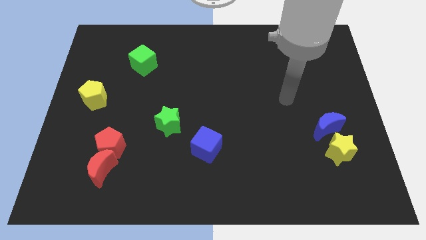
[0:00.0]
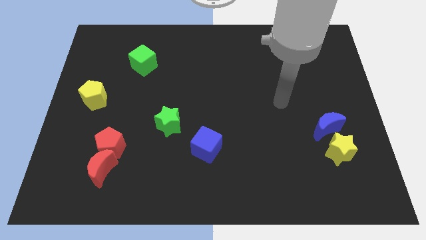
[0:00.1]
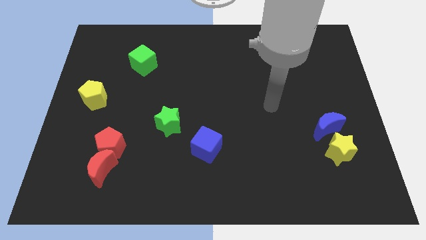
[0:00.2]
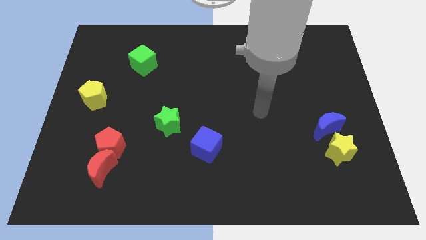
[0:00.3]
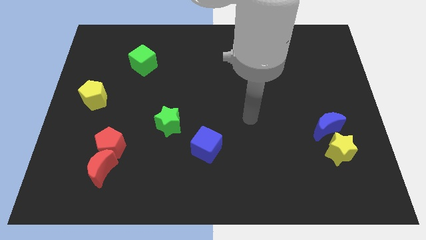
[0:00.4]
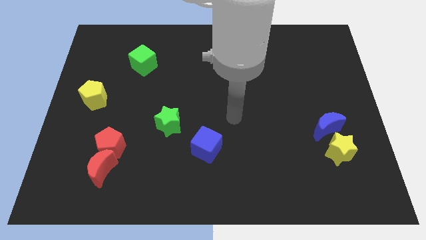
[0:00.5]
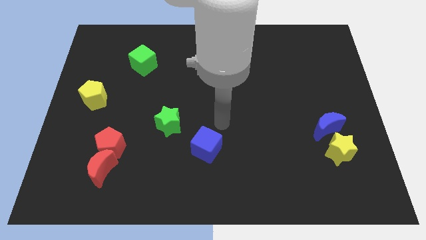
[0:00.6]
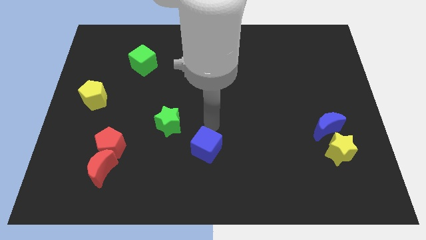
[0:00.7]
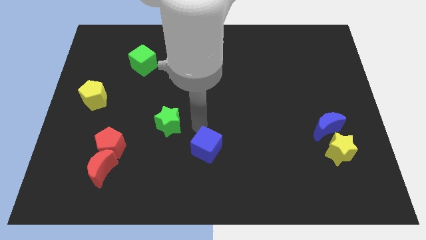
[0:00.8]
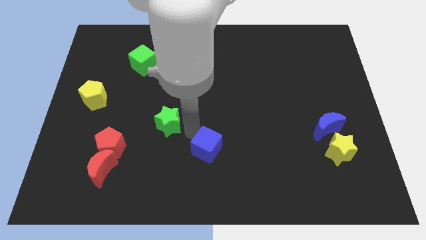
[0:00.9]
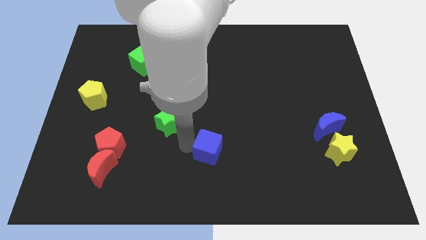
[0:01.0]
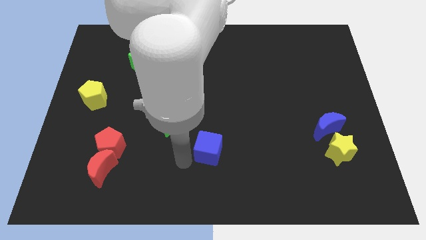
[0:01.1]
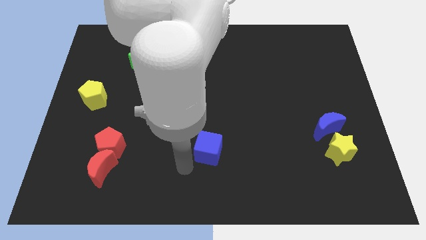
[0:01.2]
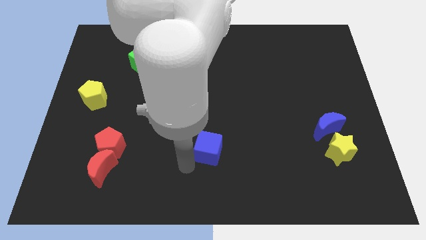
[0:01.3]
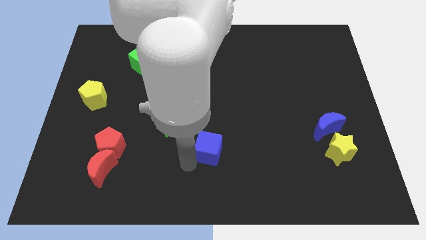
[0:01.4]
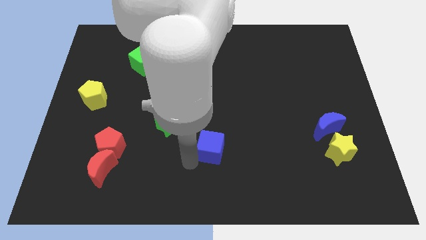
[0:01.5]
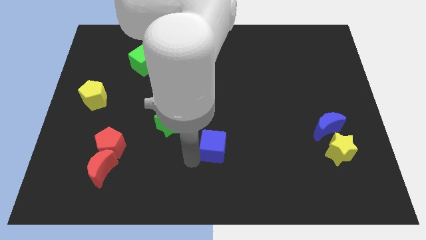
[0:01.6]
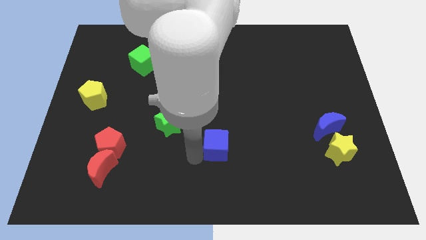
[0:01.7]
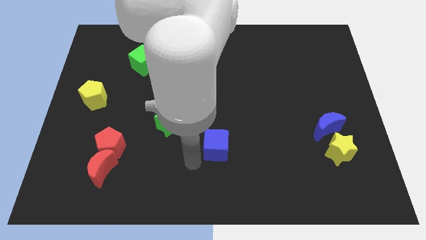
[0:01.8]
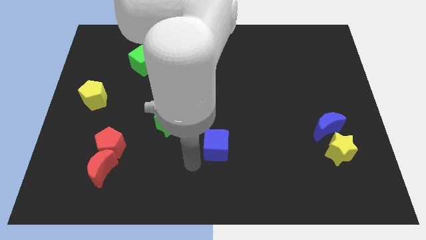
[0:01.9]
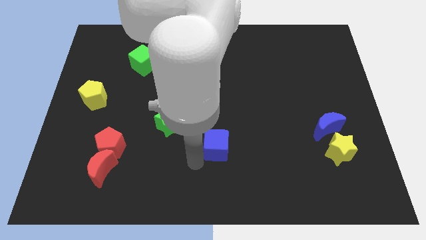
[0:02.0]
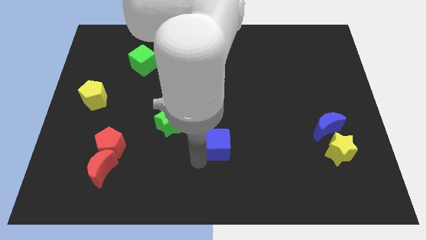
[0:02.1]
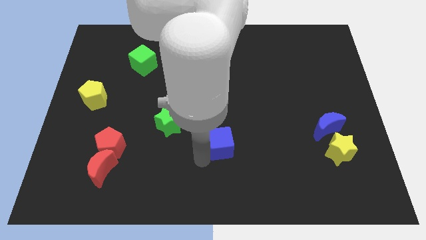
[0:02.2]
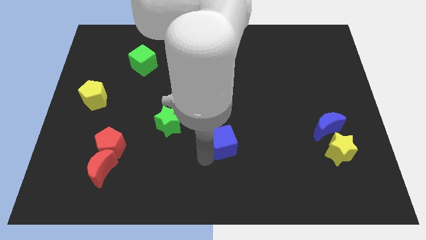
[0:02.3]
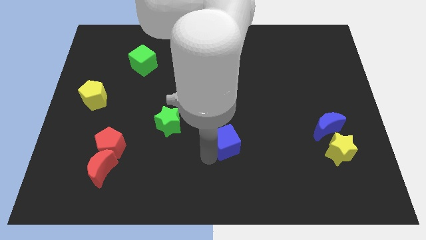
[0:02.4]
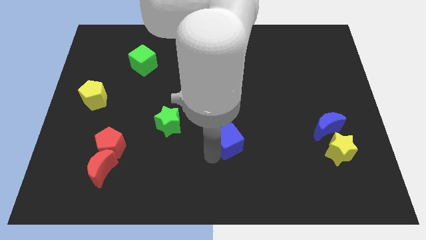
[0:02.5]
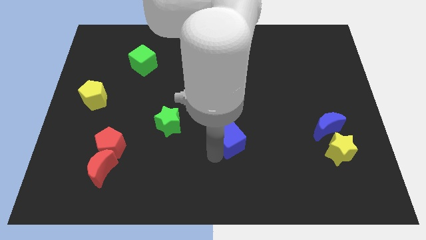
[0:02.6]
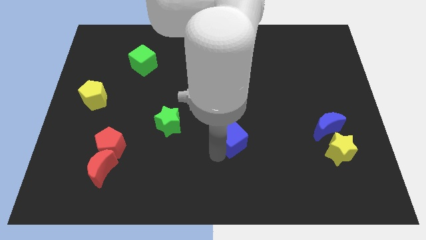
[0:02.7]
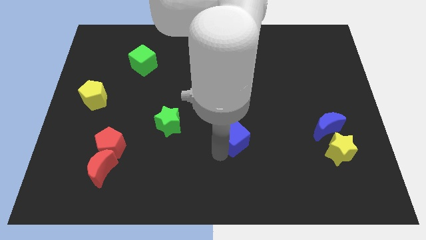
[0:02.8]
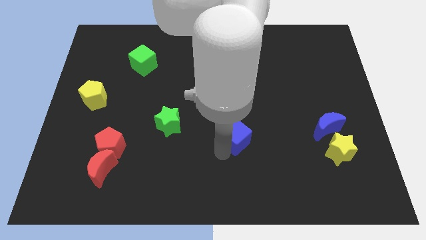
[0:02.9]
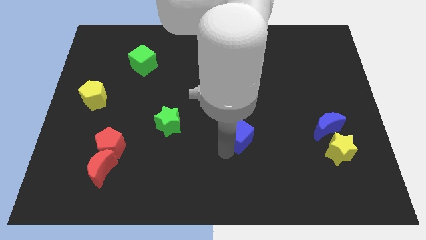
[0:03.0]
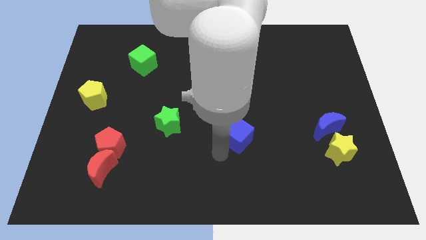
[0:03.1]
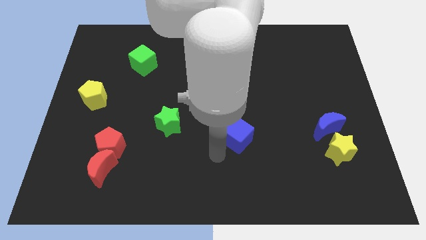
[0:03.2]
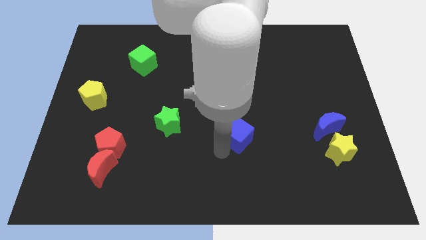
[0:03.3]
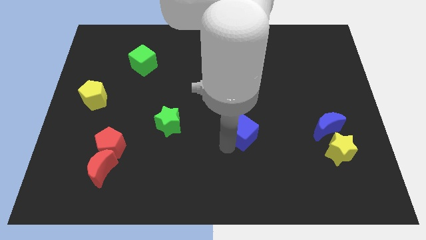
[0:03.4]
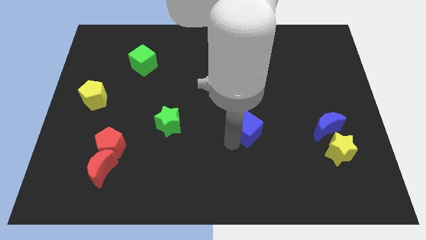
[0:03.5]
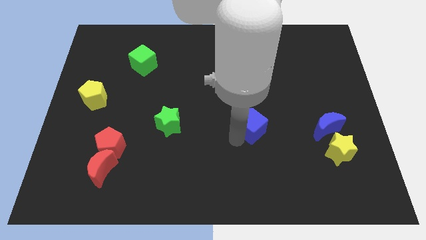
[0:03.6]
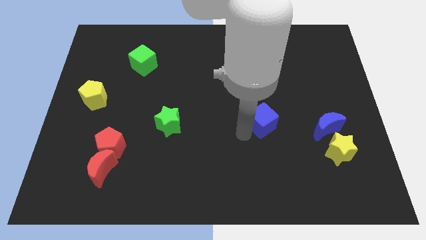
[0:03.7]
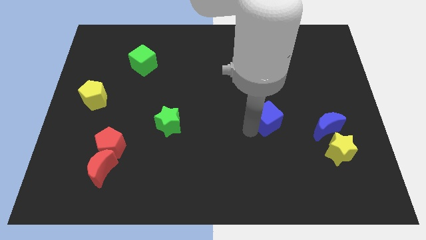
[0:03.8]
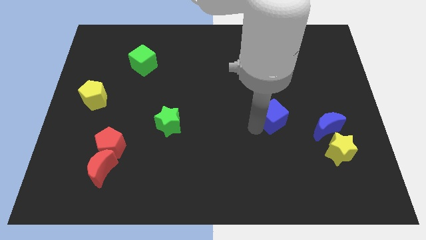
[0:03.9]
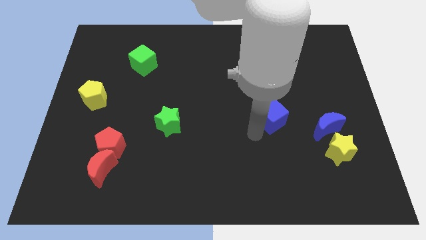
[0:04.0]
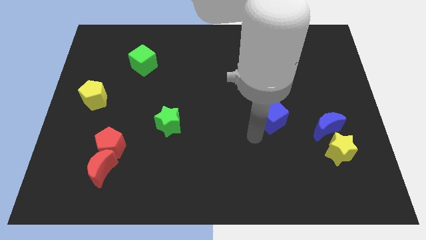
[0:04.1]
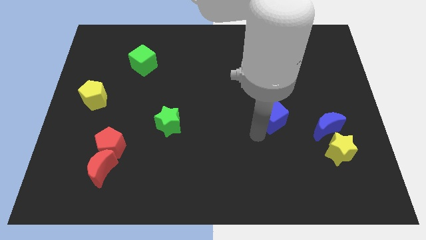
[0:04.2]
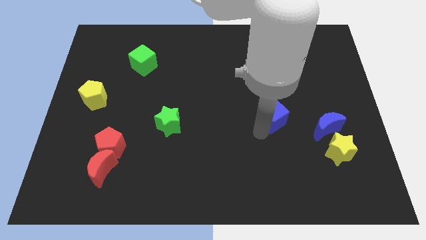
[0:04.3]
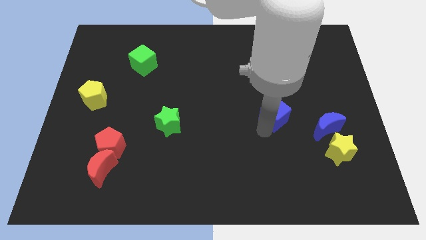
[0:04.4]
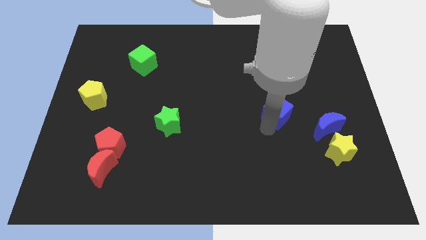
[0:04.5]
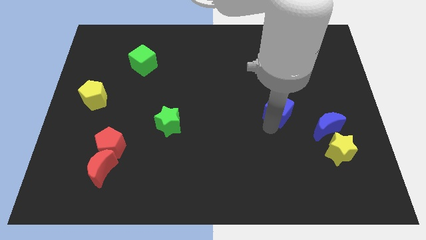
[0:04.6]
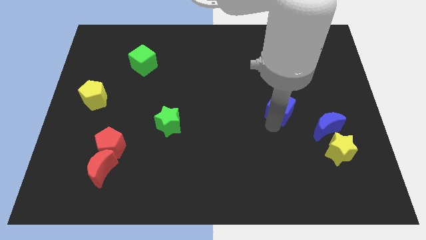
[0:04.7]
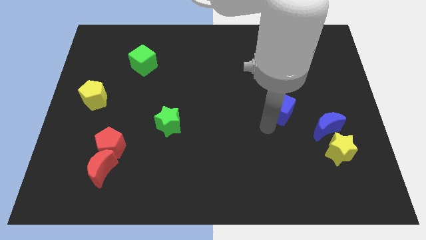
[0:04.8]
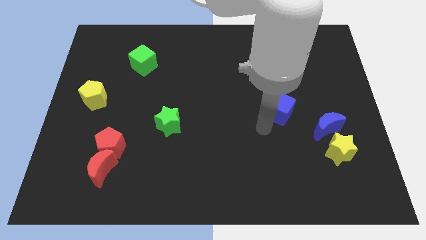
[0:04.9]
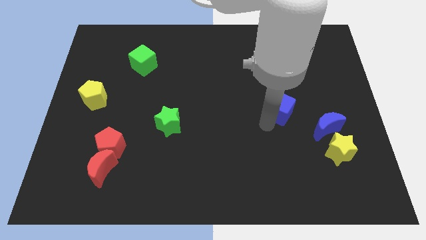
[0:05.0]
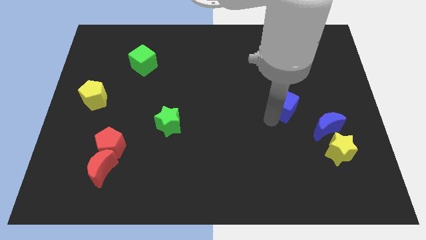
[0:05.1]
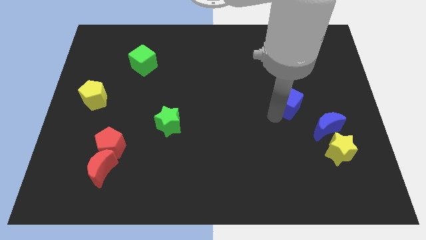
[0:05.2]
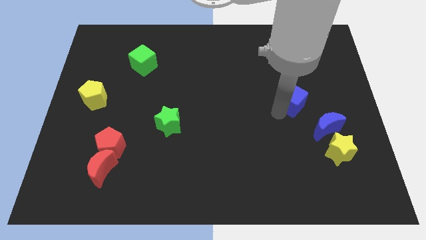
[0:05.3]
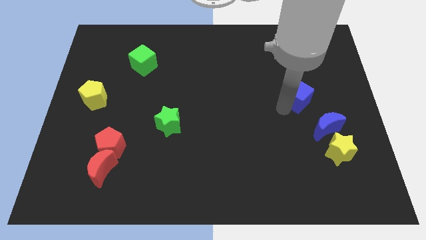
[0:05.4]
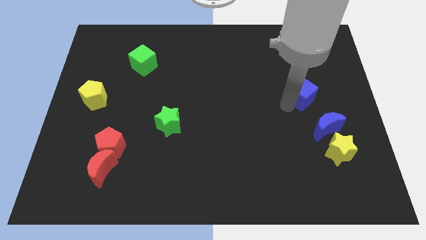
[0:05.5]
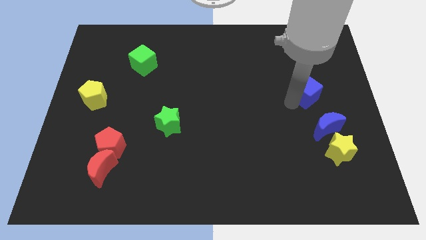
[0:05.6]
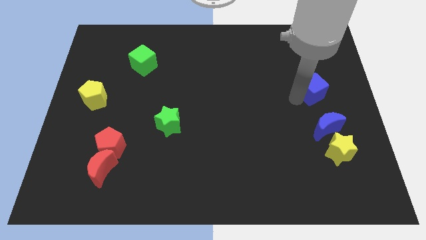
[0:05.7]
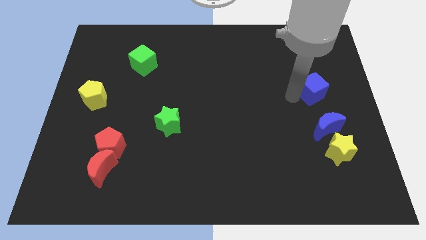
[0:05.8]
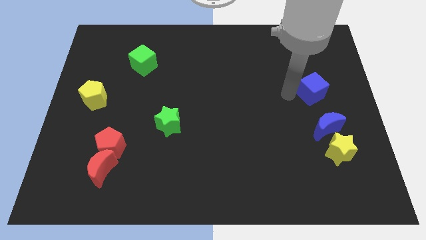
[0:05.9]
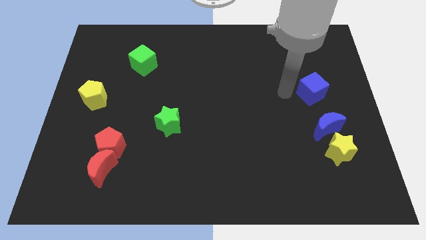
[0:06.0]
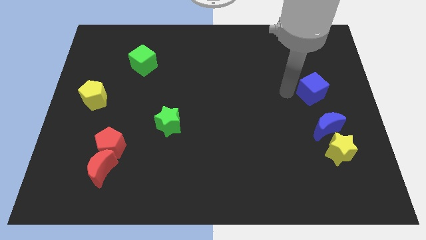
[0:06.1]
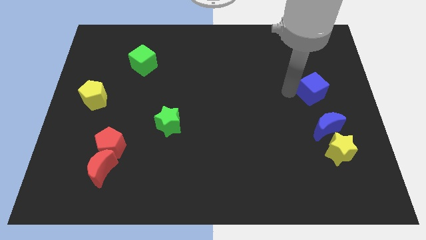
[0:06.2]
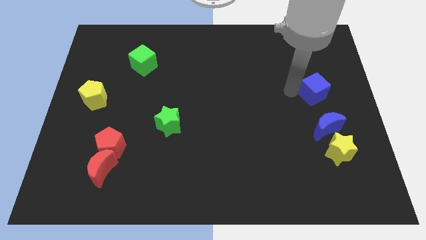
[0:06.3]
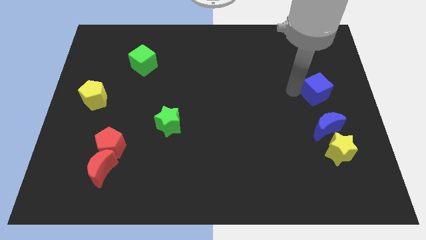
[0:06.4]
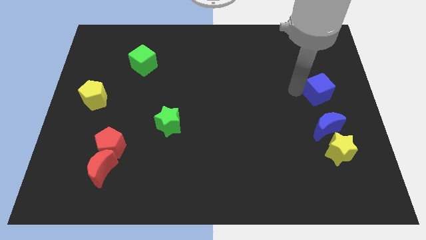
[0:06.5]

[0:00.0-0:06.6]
push the blue cube to the right side

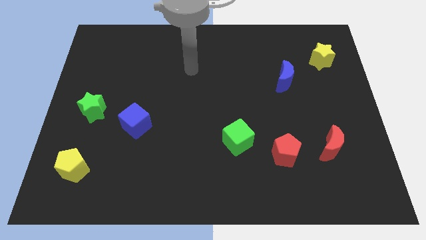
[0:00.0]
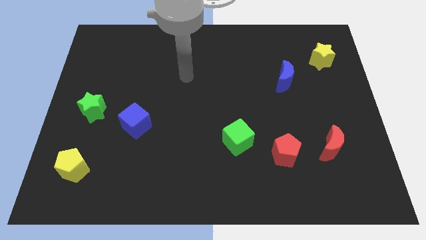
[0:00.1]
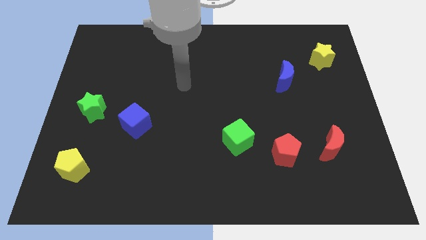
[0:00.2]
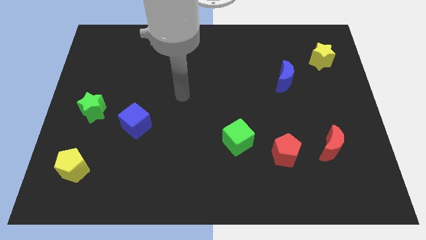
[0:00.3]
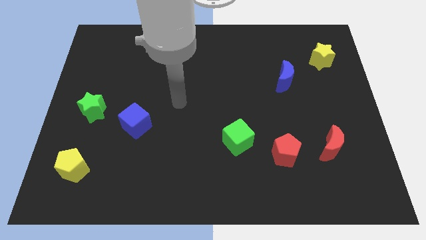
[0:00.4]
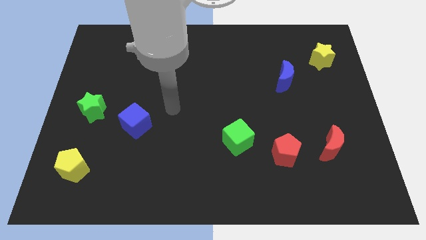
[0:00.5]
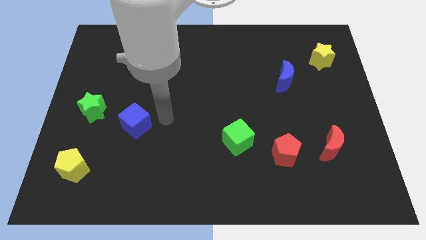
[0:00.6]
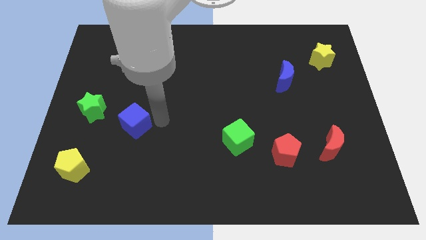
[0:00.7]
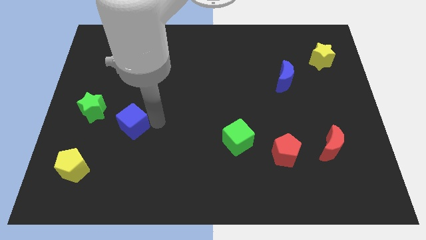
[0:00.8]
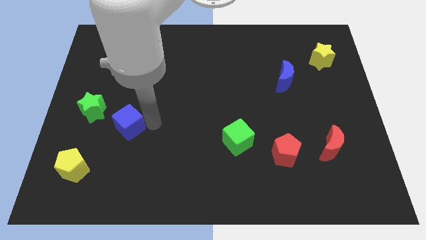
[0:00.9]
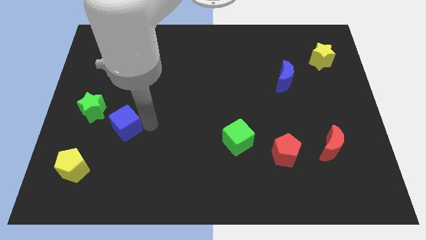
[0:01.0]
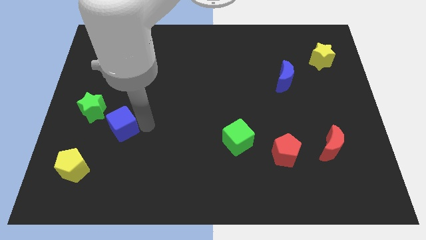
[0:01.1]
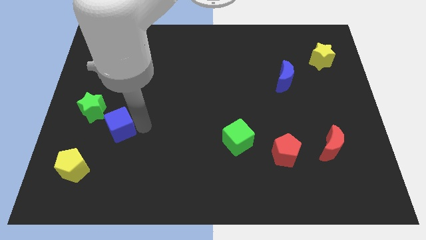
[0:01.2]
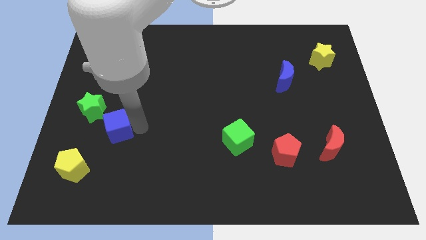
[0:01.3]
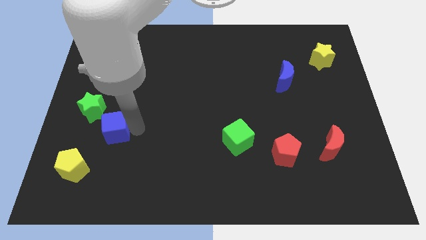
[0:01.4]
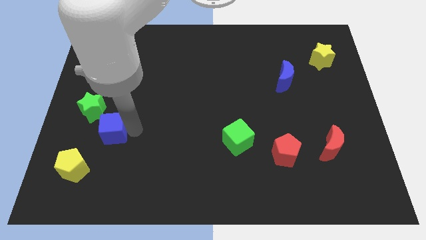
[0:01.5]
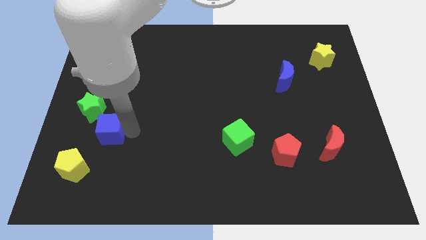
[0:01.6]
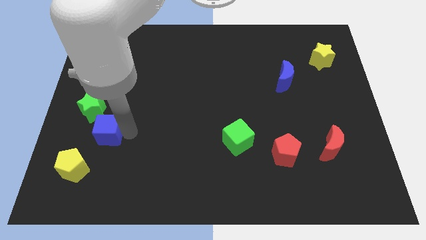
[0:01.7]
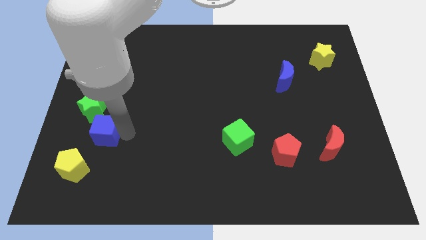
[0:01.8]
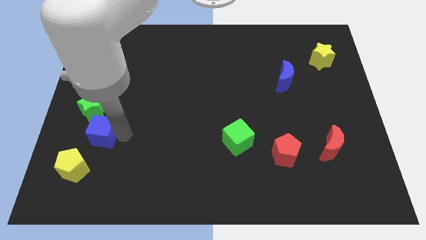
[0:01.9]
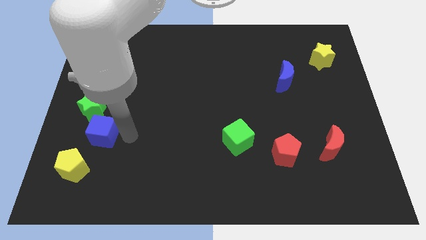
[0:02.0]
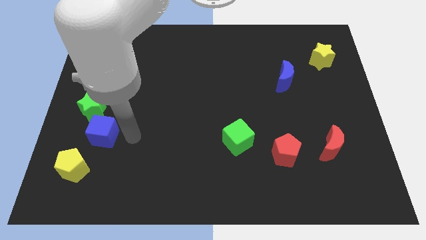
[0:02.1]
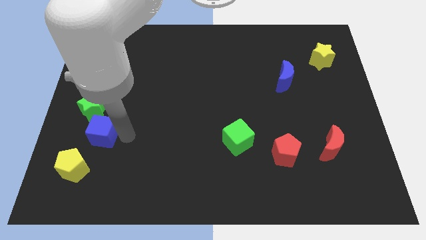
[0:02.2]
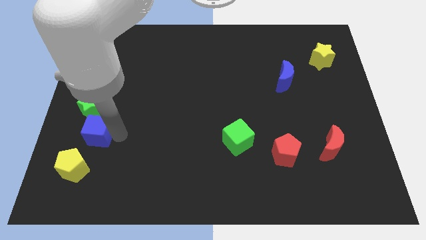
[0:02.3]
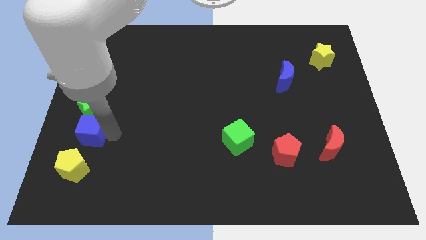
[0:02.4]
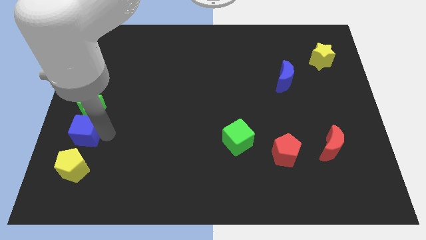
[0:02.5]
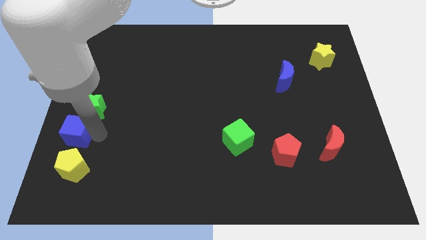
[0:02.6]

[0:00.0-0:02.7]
push the blue cube to the left side
